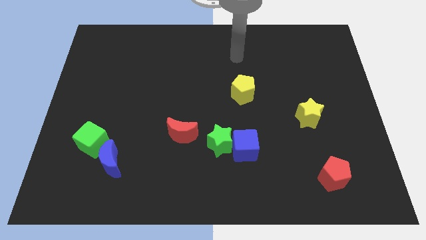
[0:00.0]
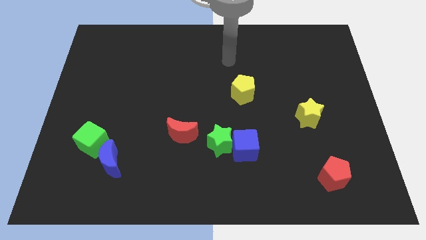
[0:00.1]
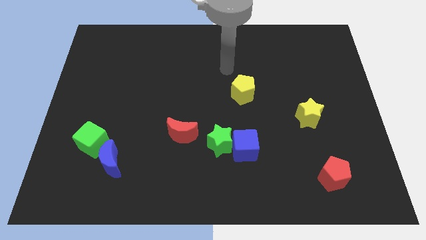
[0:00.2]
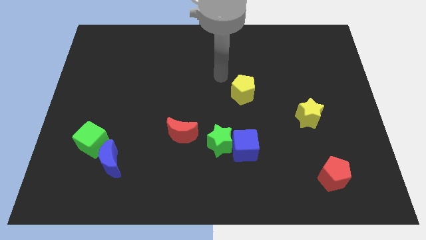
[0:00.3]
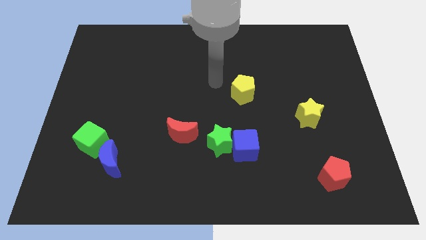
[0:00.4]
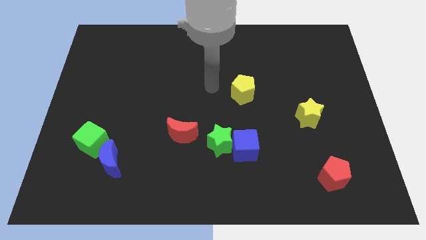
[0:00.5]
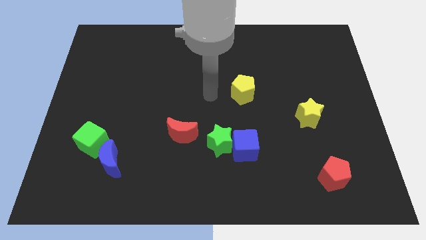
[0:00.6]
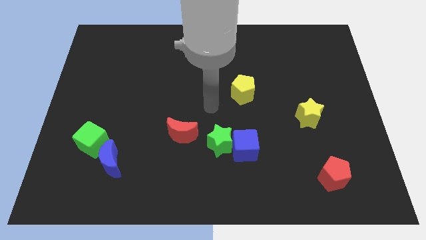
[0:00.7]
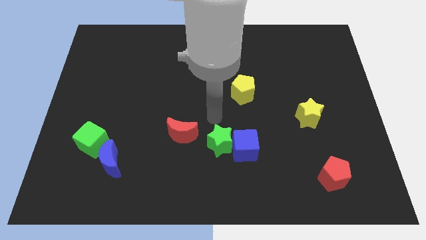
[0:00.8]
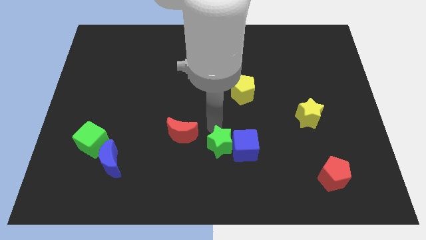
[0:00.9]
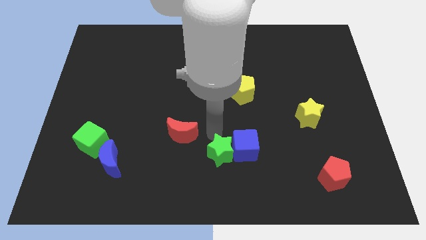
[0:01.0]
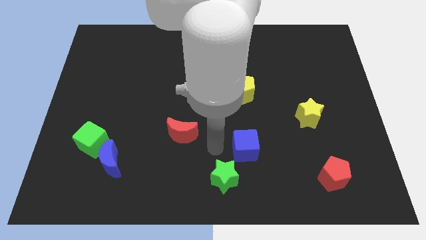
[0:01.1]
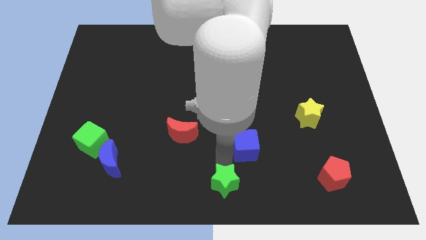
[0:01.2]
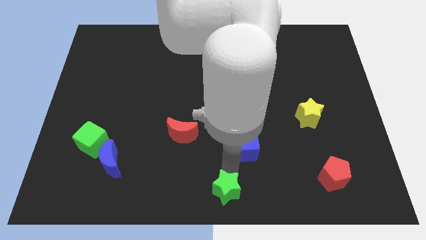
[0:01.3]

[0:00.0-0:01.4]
pull the blue cube apart from the green star

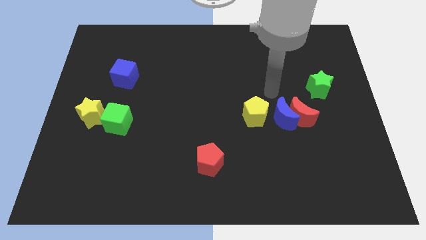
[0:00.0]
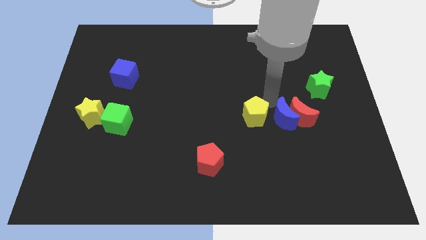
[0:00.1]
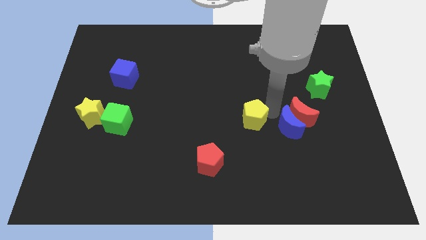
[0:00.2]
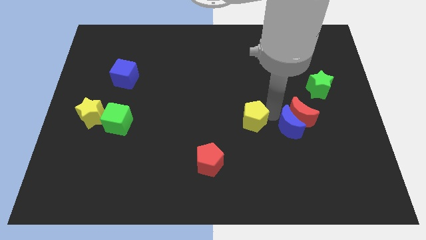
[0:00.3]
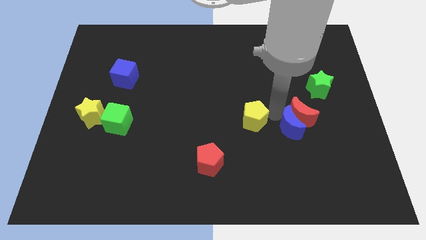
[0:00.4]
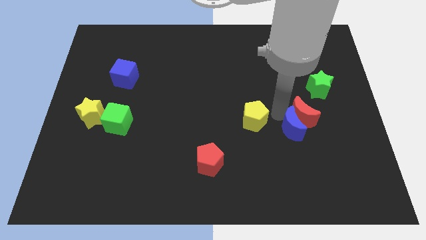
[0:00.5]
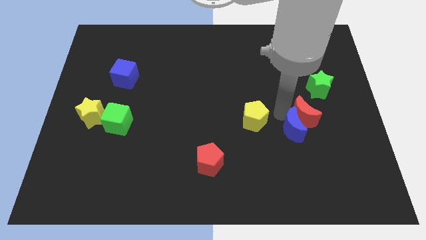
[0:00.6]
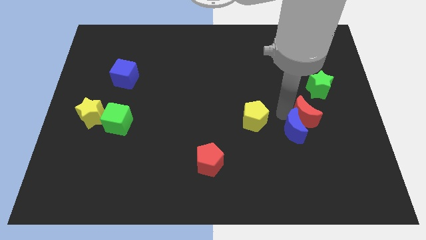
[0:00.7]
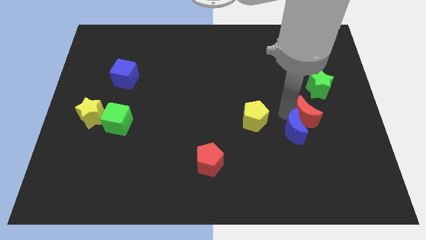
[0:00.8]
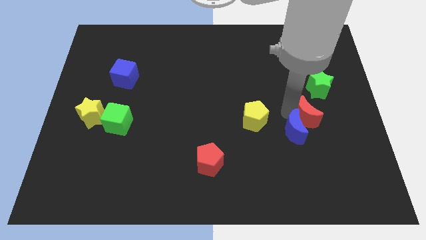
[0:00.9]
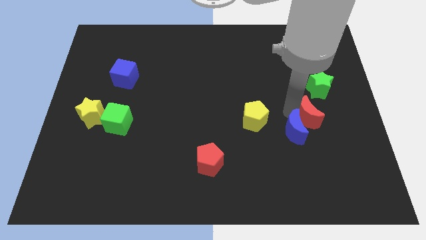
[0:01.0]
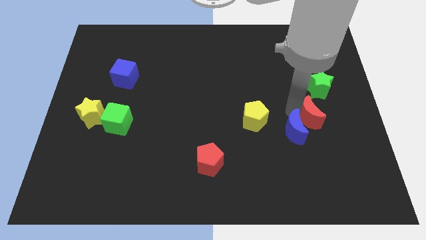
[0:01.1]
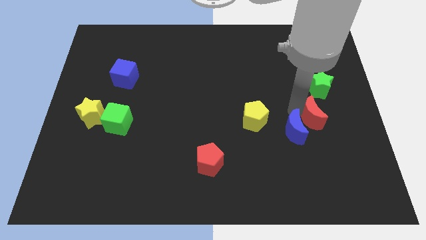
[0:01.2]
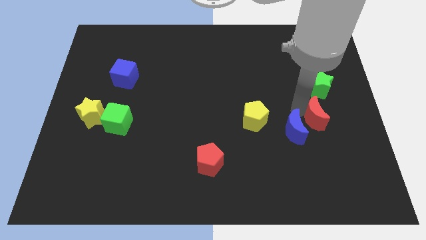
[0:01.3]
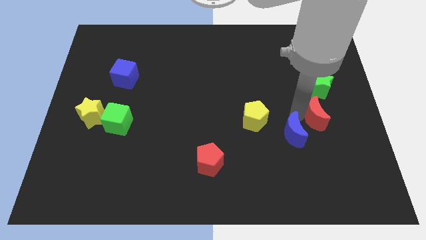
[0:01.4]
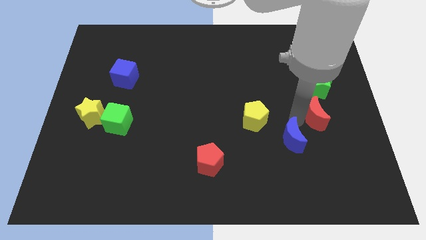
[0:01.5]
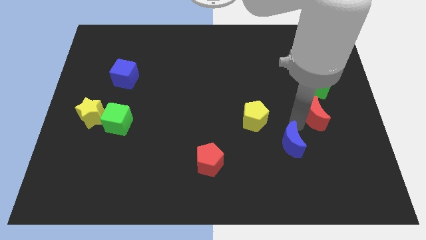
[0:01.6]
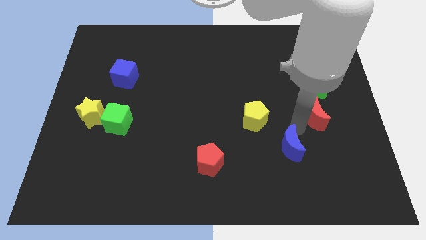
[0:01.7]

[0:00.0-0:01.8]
separate the red moon from the blue moon

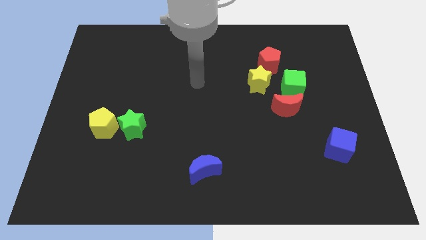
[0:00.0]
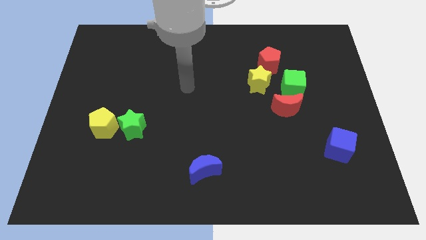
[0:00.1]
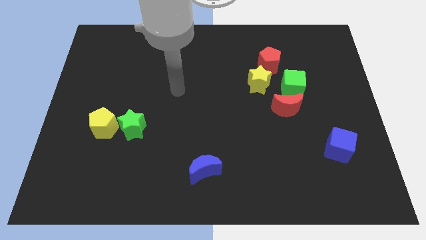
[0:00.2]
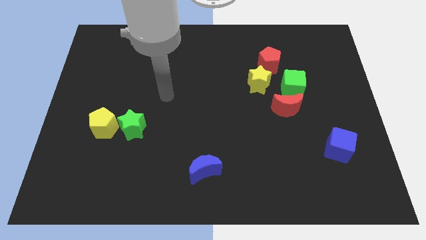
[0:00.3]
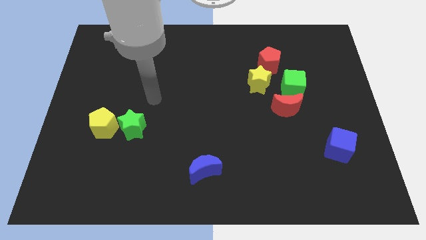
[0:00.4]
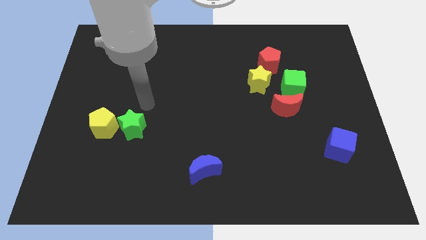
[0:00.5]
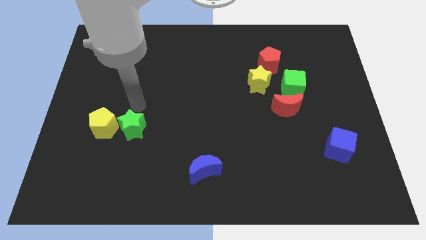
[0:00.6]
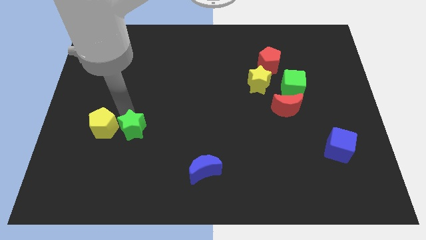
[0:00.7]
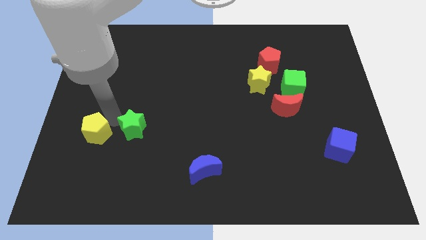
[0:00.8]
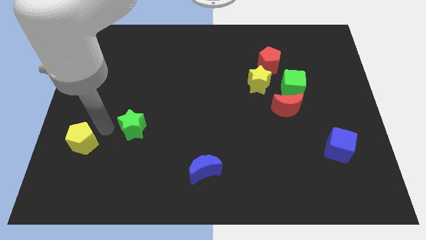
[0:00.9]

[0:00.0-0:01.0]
pull the green star apart from the yellow pentagon

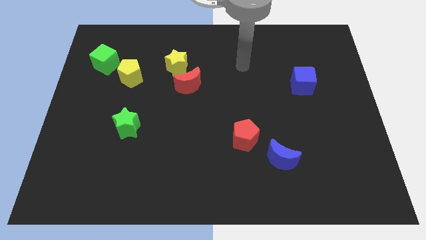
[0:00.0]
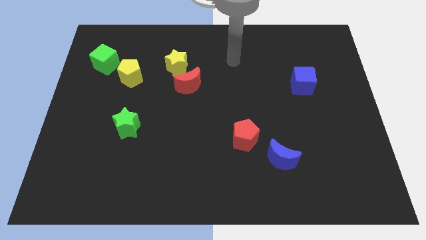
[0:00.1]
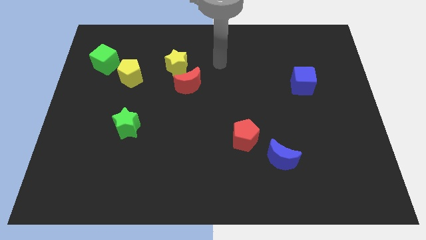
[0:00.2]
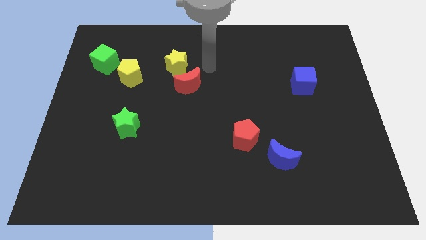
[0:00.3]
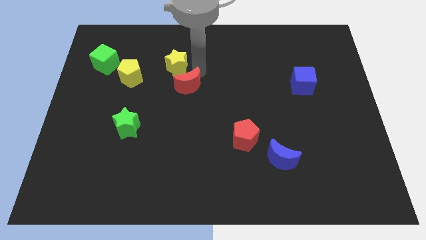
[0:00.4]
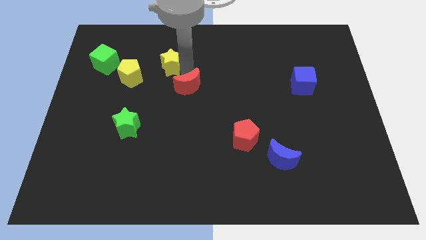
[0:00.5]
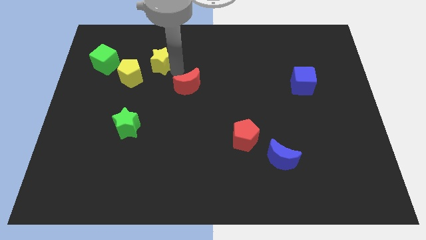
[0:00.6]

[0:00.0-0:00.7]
separate the red moon from the yellow star

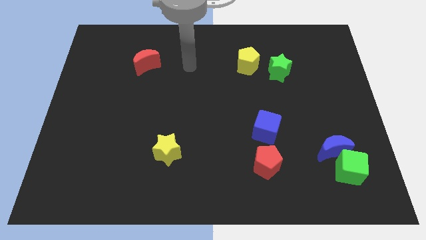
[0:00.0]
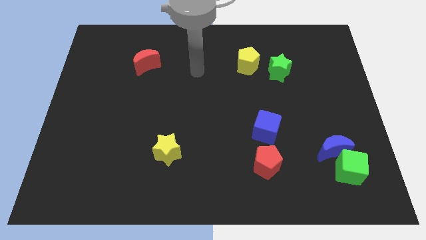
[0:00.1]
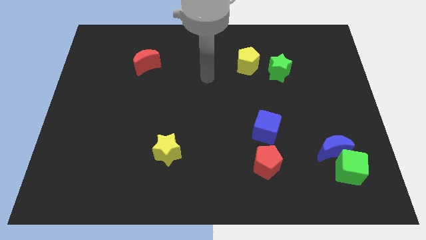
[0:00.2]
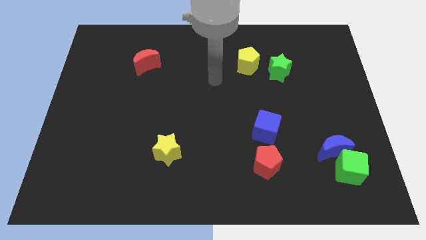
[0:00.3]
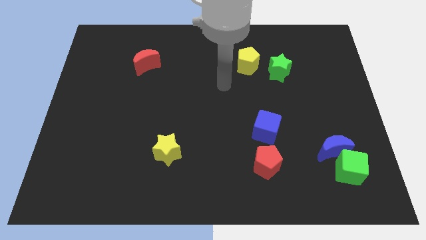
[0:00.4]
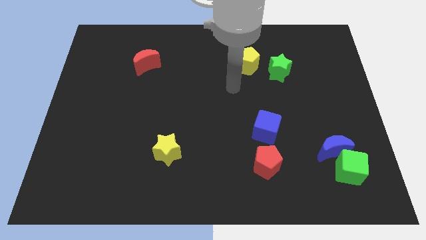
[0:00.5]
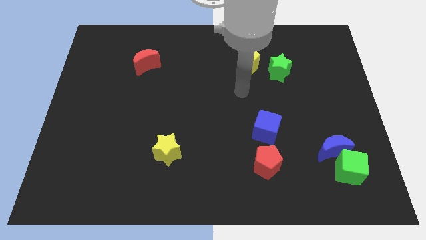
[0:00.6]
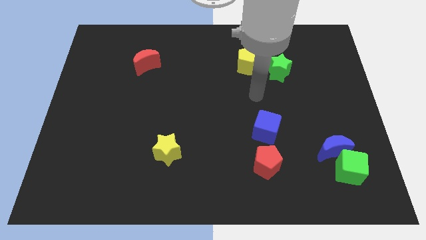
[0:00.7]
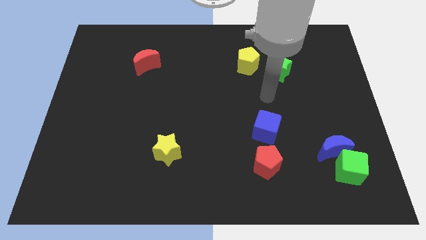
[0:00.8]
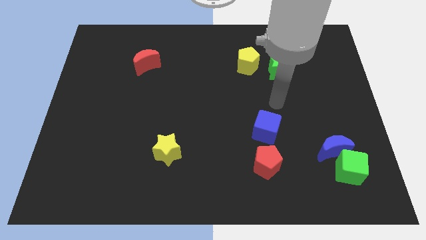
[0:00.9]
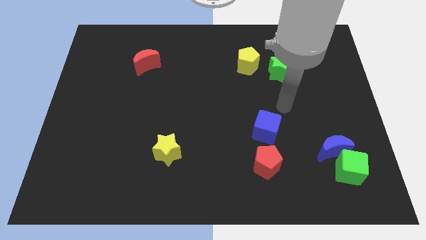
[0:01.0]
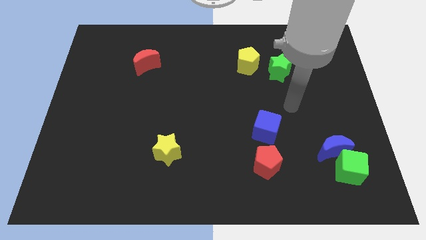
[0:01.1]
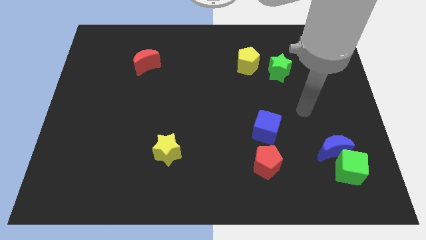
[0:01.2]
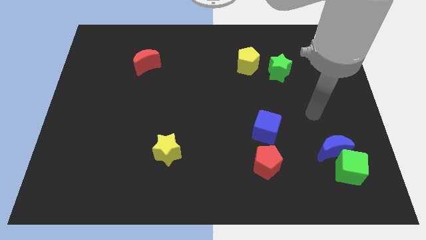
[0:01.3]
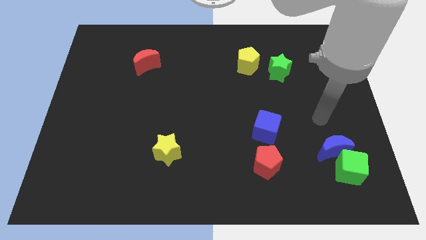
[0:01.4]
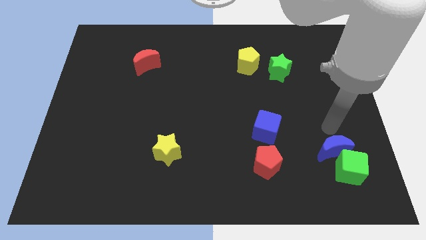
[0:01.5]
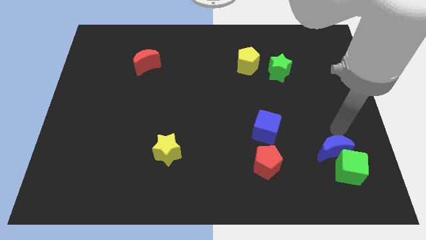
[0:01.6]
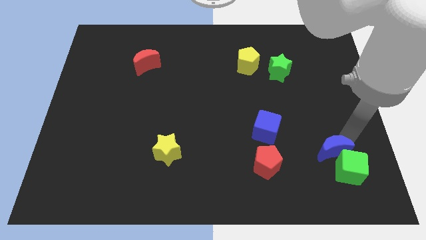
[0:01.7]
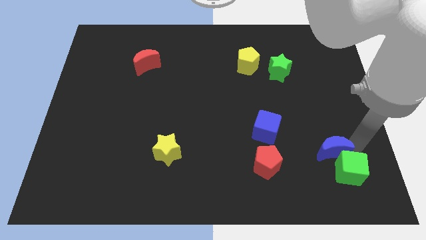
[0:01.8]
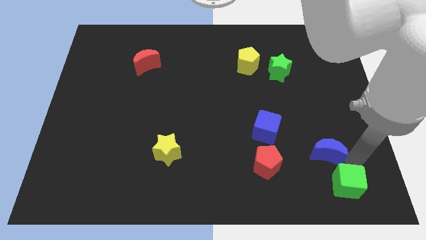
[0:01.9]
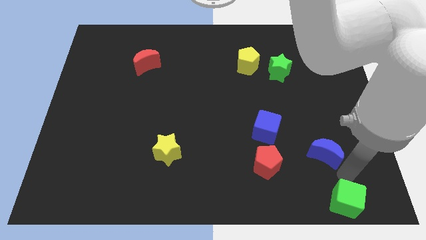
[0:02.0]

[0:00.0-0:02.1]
separate the blue moon from the green cube

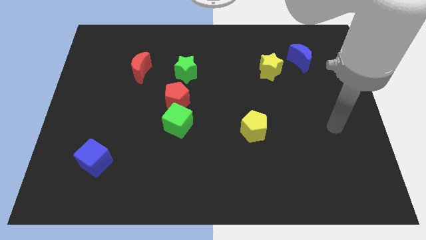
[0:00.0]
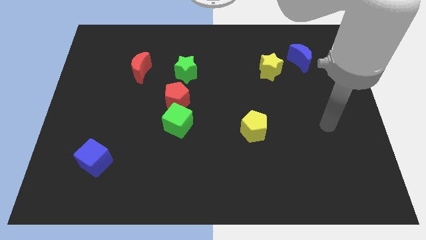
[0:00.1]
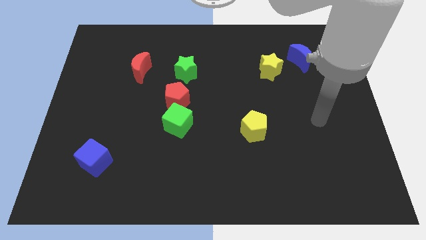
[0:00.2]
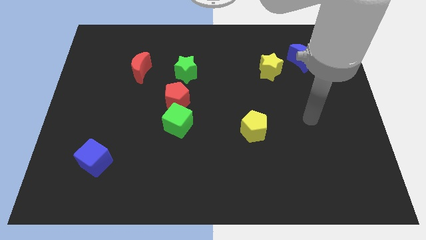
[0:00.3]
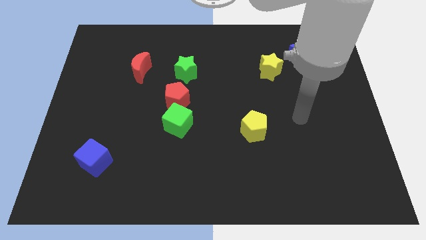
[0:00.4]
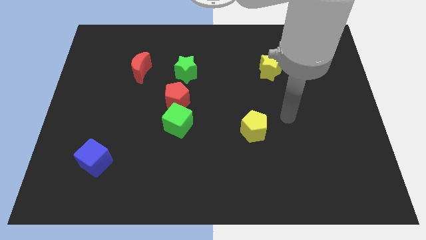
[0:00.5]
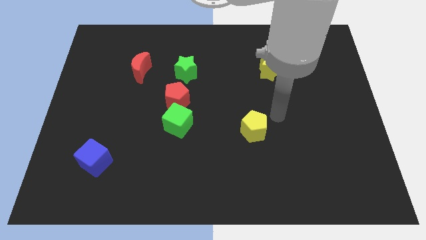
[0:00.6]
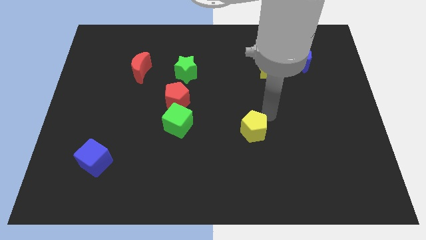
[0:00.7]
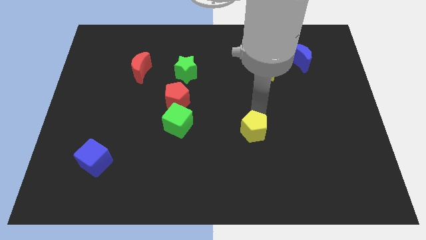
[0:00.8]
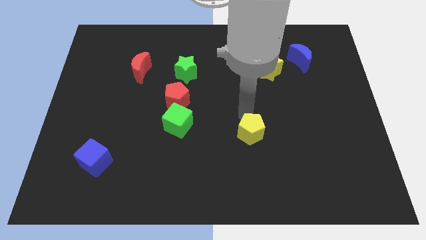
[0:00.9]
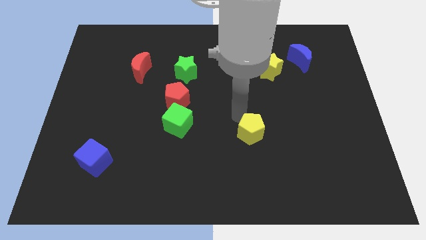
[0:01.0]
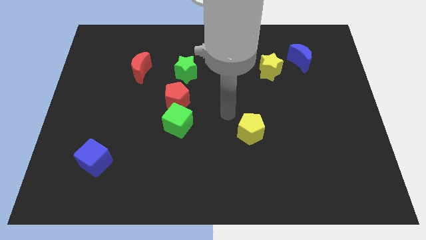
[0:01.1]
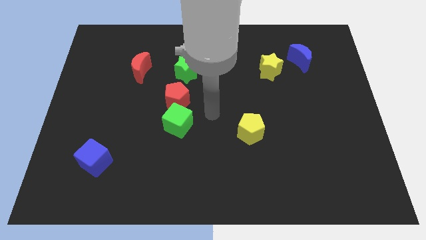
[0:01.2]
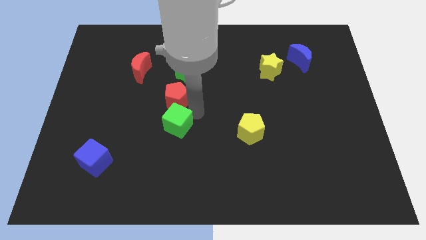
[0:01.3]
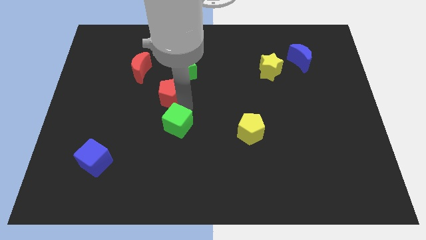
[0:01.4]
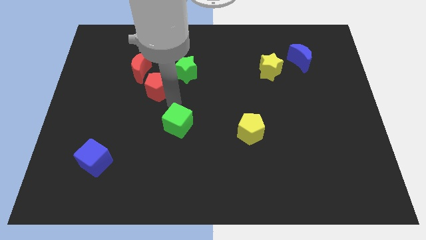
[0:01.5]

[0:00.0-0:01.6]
pull the green cube apart from the red pentagon

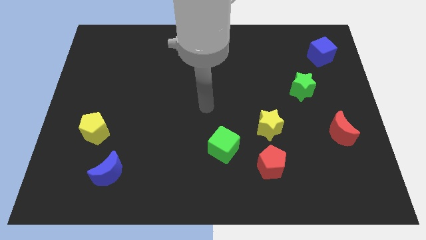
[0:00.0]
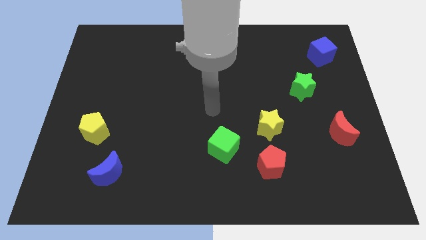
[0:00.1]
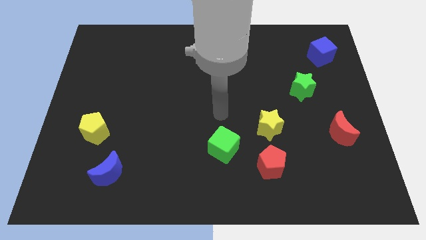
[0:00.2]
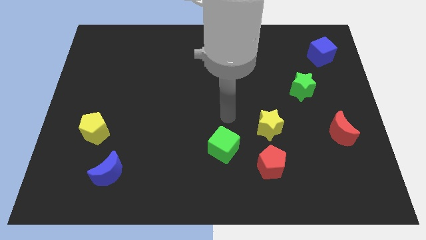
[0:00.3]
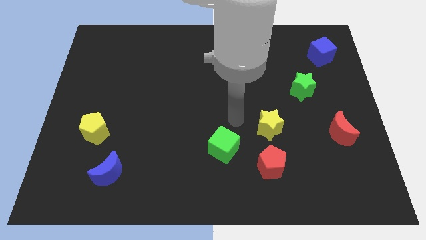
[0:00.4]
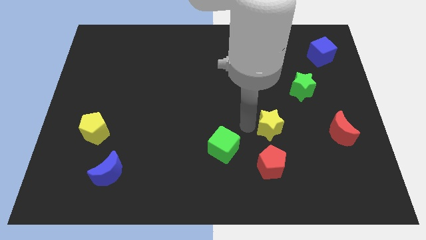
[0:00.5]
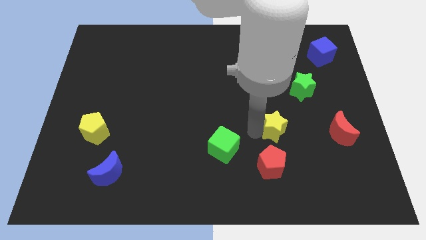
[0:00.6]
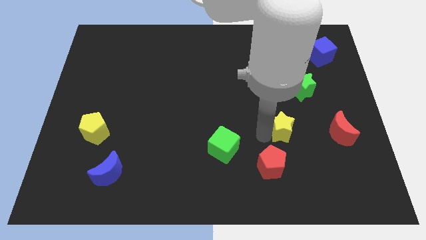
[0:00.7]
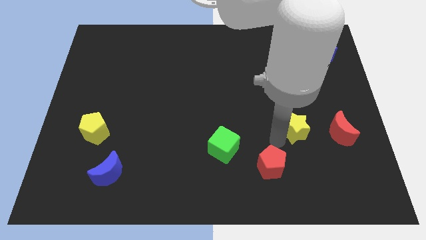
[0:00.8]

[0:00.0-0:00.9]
separate the red pentagon from the yellow star
